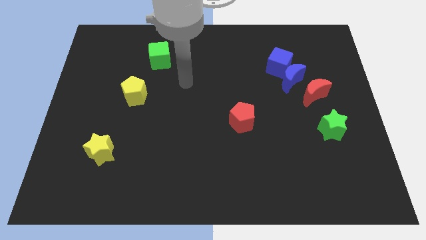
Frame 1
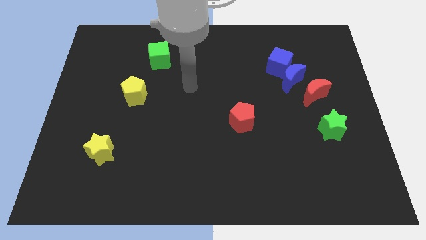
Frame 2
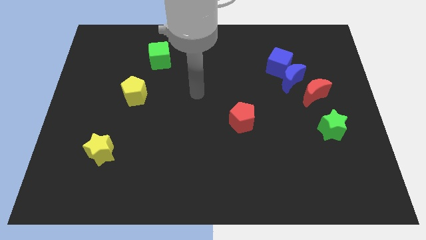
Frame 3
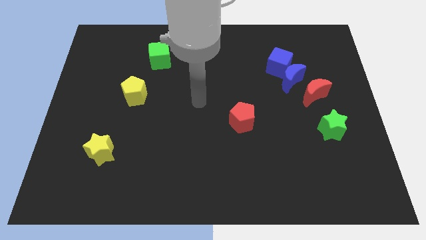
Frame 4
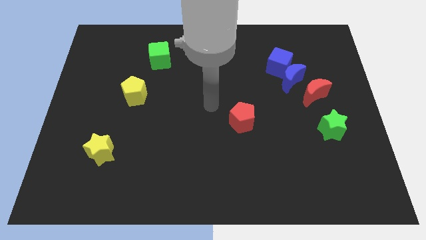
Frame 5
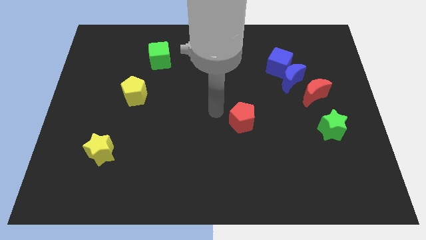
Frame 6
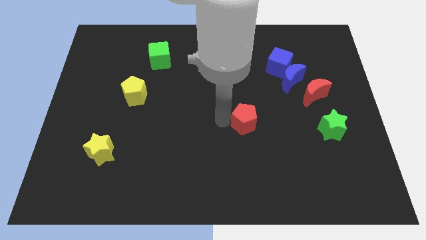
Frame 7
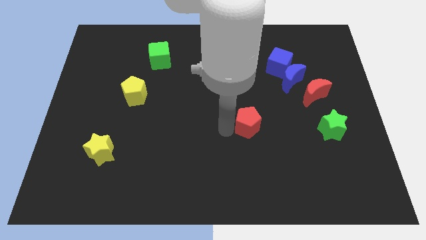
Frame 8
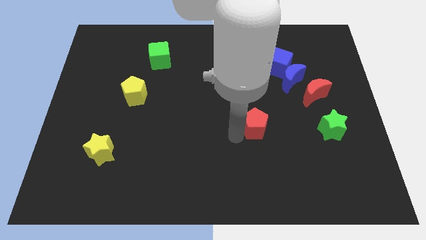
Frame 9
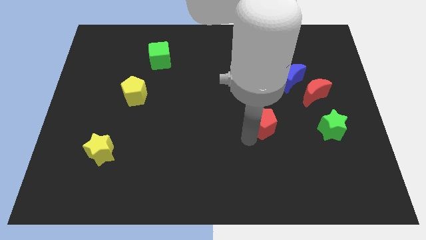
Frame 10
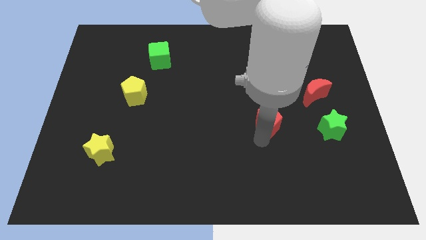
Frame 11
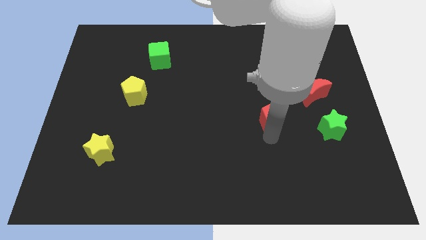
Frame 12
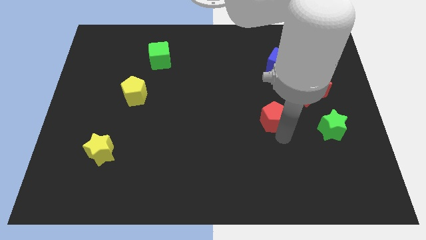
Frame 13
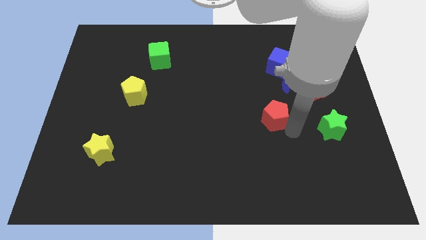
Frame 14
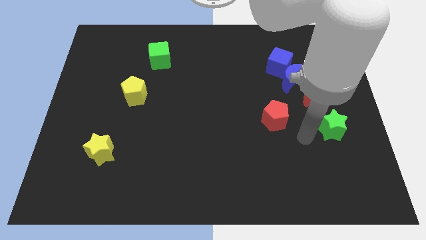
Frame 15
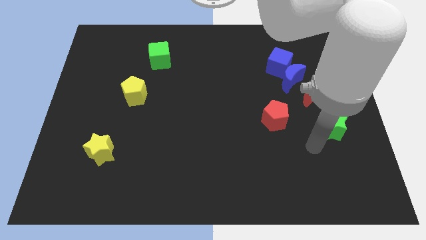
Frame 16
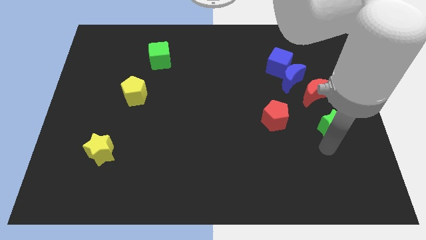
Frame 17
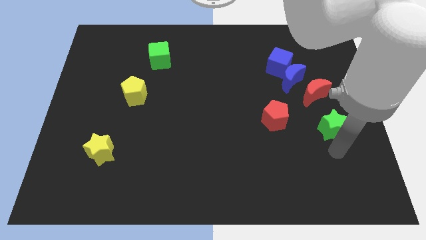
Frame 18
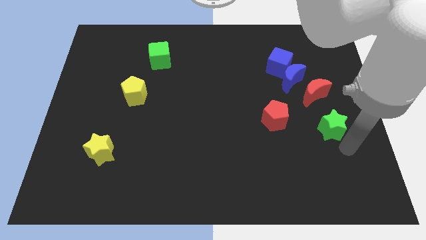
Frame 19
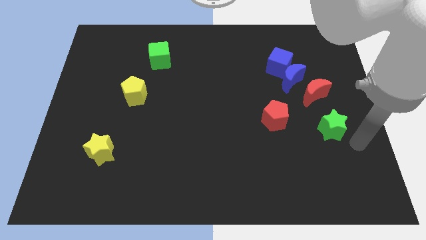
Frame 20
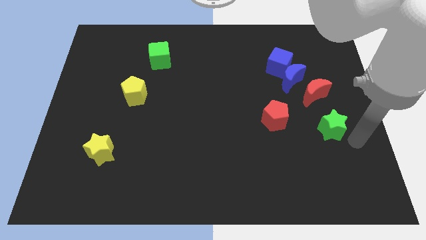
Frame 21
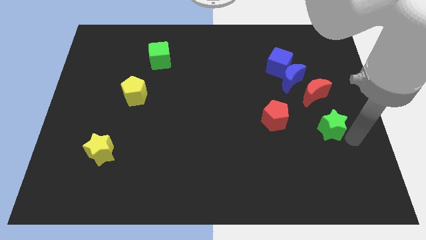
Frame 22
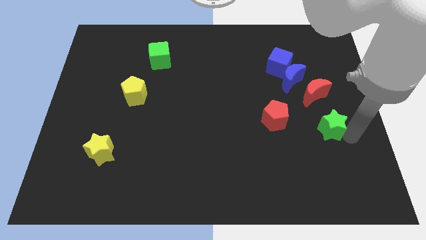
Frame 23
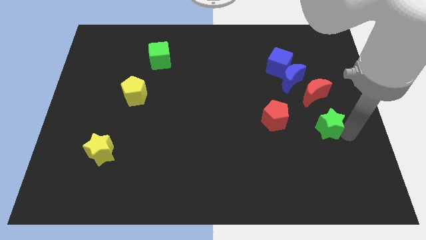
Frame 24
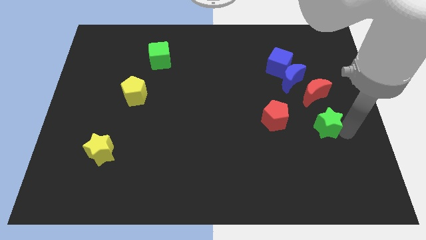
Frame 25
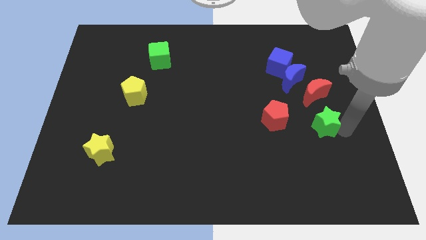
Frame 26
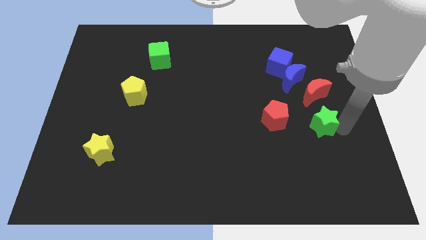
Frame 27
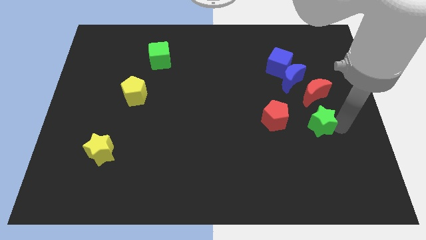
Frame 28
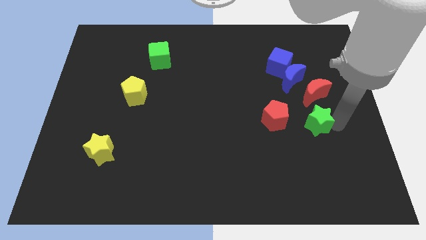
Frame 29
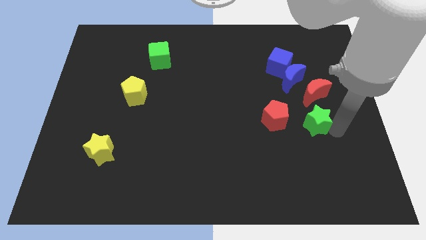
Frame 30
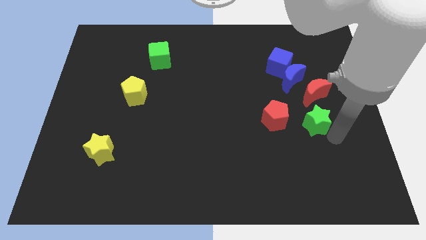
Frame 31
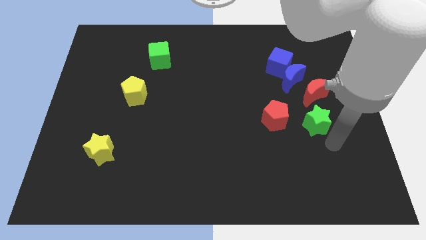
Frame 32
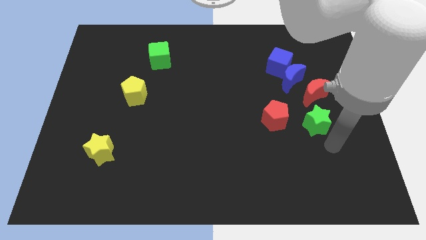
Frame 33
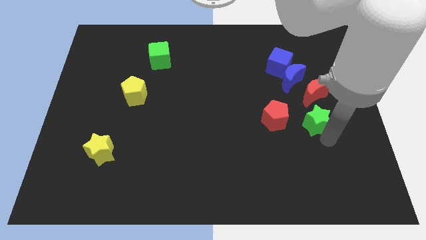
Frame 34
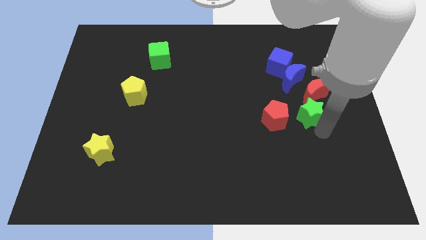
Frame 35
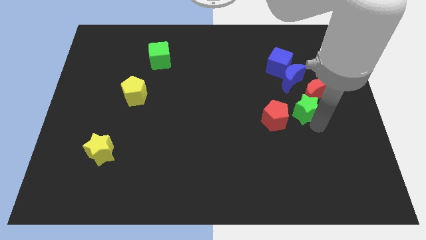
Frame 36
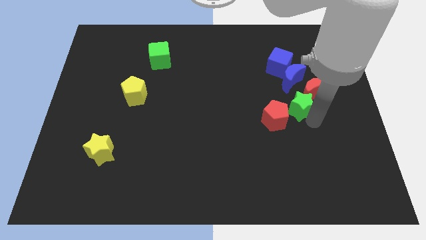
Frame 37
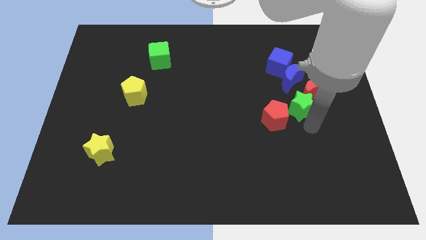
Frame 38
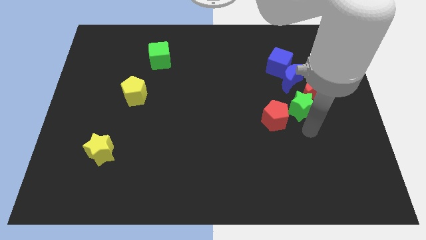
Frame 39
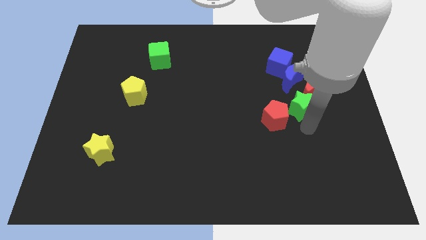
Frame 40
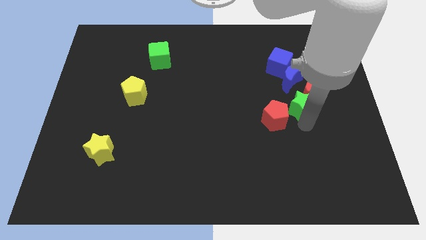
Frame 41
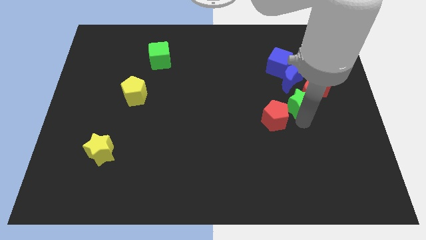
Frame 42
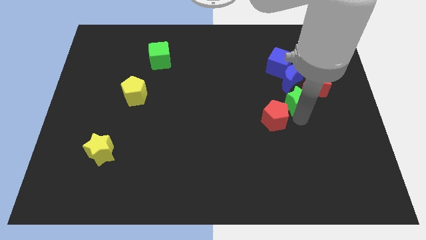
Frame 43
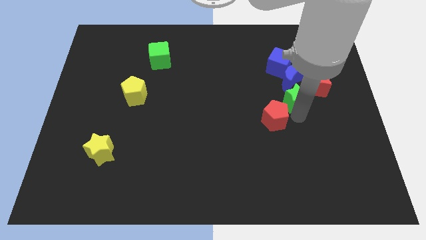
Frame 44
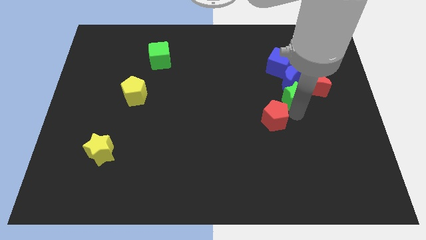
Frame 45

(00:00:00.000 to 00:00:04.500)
slide the green star close to the blue moon

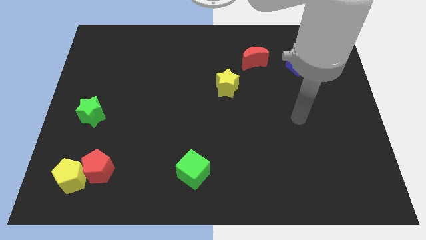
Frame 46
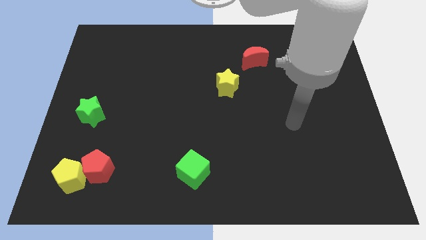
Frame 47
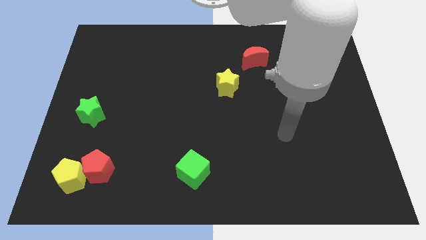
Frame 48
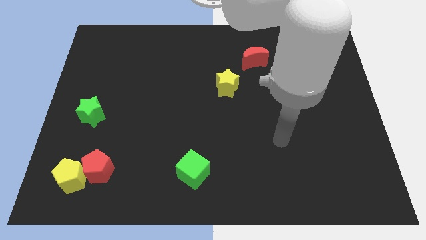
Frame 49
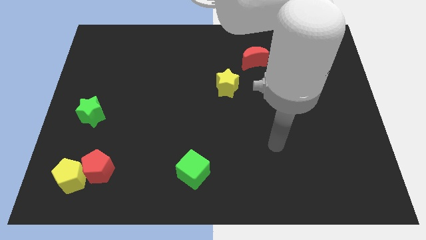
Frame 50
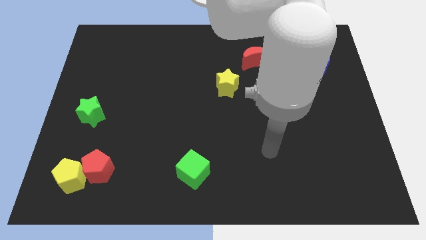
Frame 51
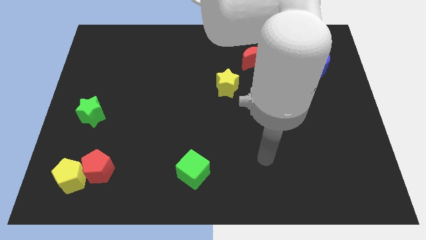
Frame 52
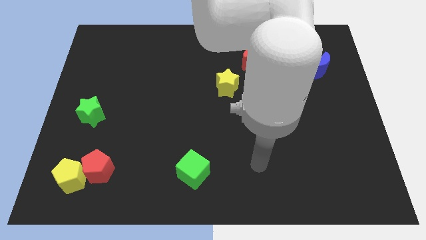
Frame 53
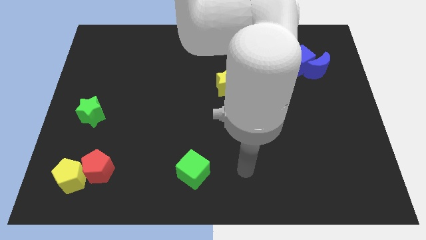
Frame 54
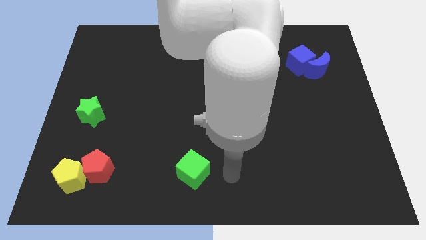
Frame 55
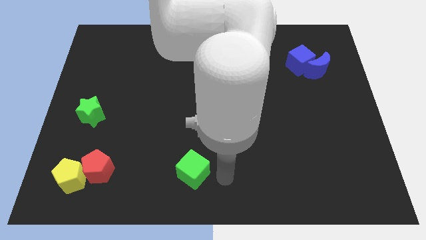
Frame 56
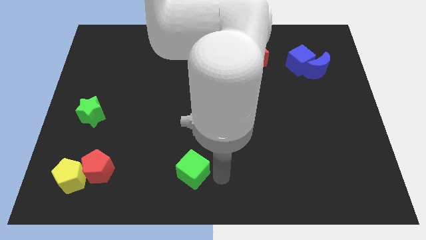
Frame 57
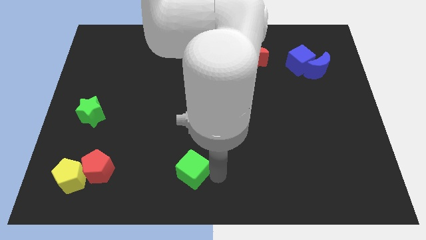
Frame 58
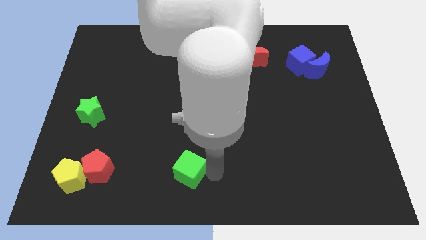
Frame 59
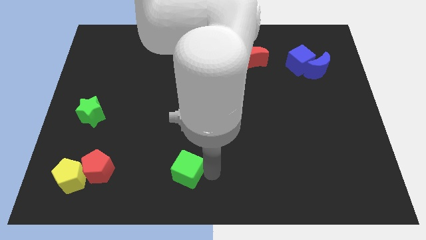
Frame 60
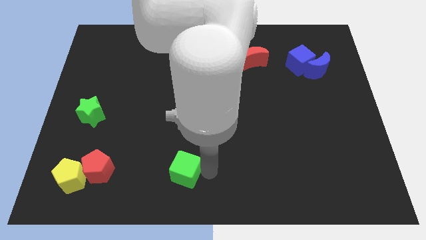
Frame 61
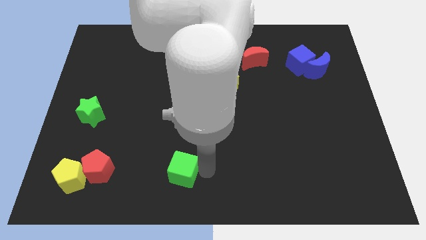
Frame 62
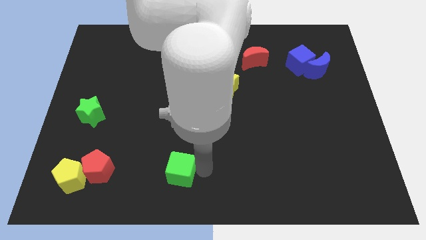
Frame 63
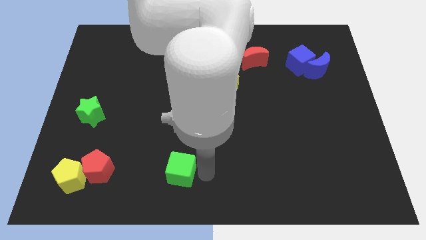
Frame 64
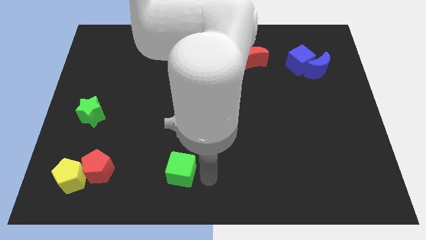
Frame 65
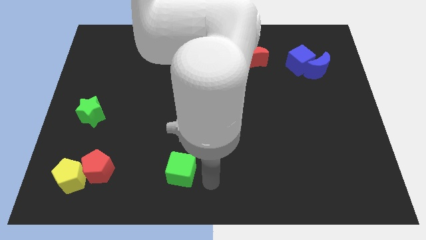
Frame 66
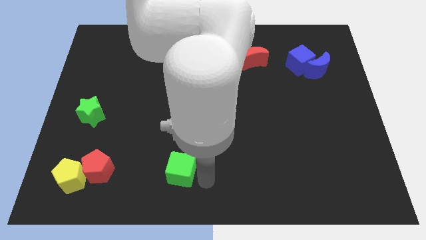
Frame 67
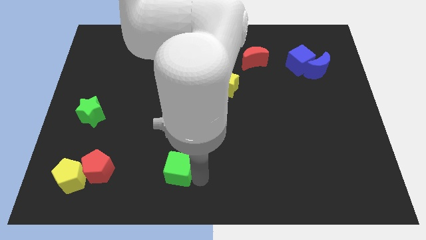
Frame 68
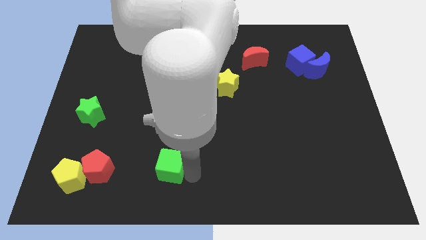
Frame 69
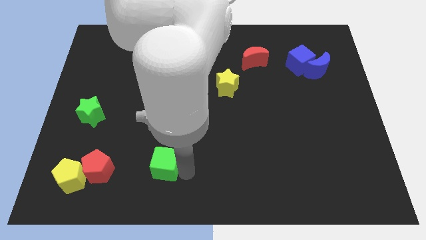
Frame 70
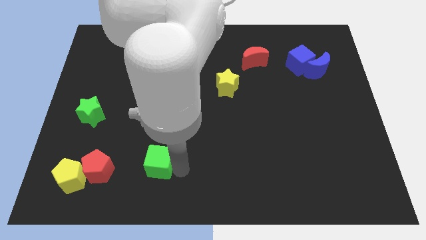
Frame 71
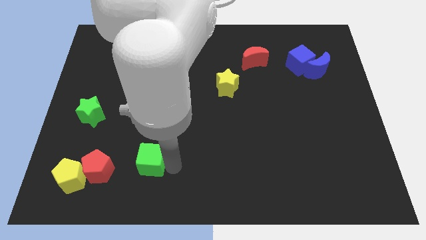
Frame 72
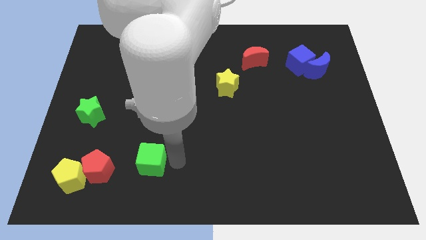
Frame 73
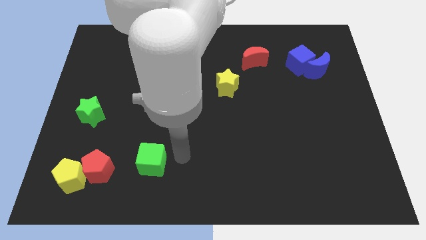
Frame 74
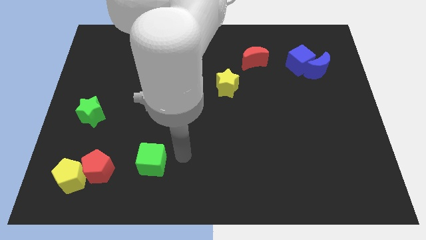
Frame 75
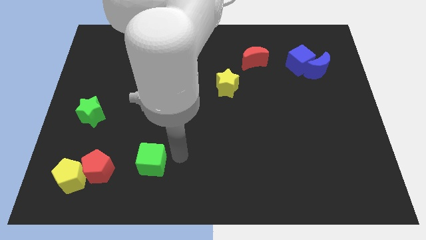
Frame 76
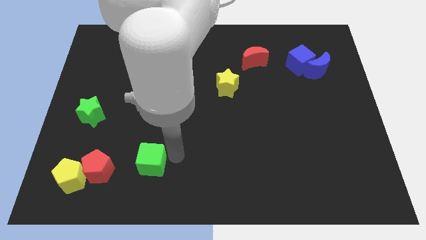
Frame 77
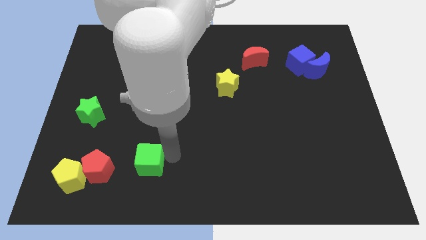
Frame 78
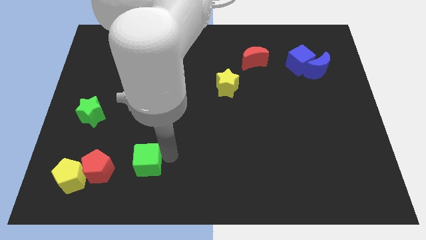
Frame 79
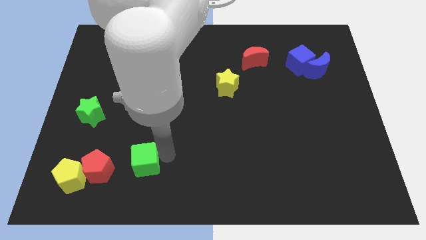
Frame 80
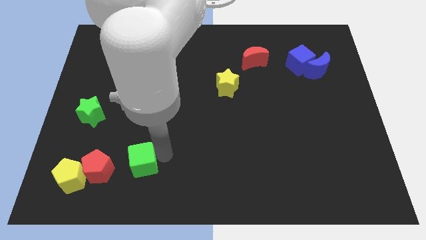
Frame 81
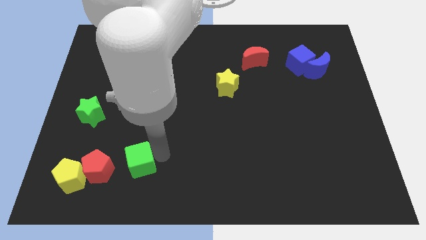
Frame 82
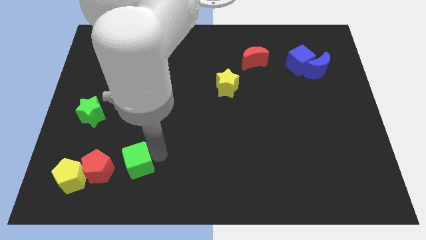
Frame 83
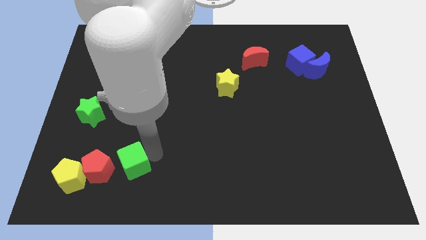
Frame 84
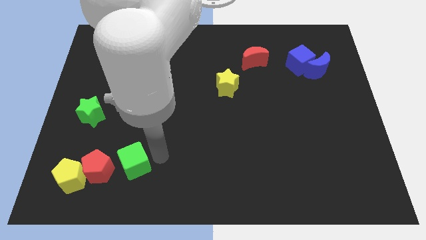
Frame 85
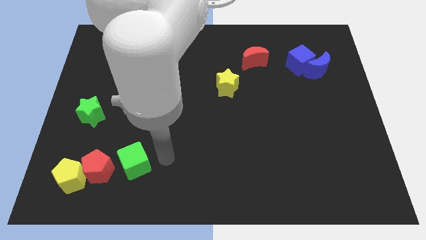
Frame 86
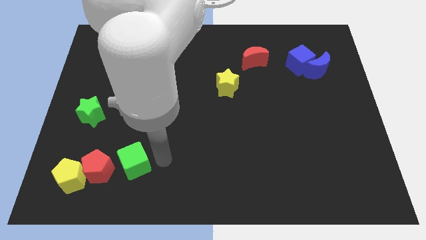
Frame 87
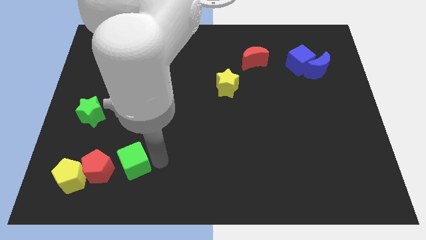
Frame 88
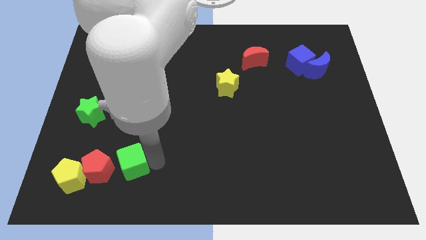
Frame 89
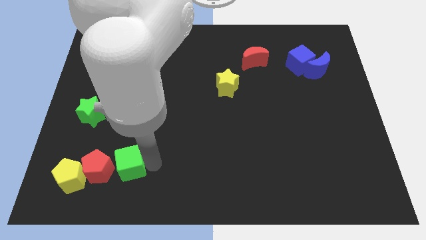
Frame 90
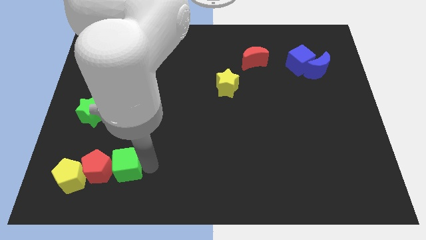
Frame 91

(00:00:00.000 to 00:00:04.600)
slide the green cube next to the red pentagon
